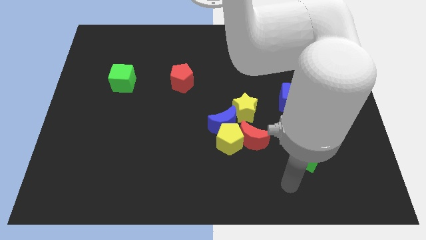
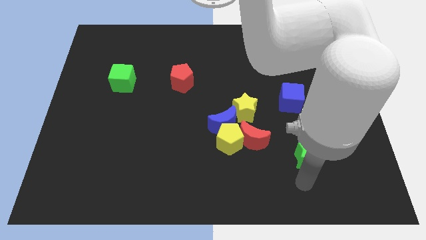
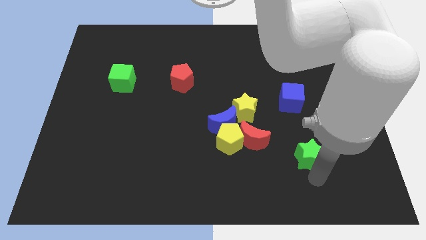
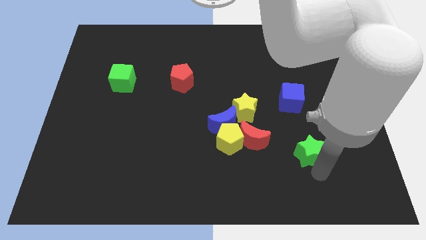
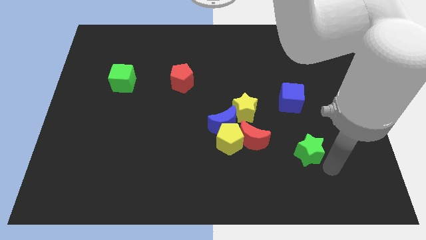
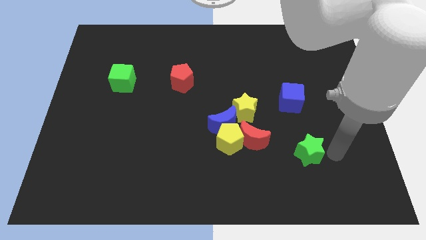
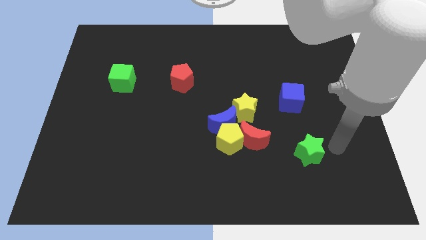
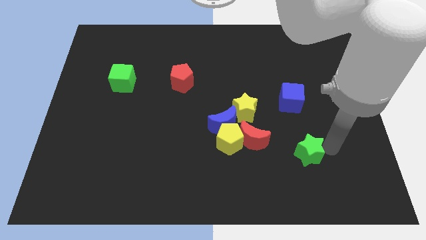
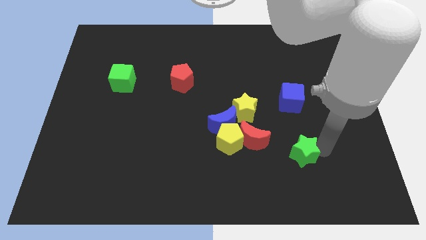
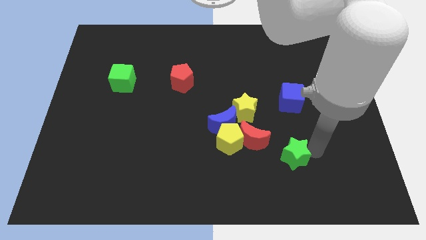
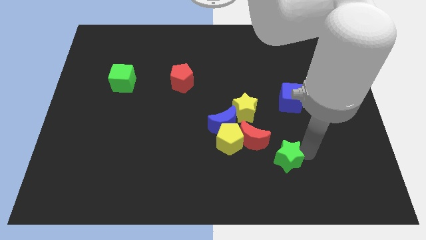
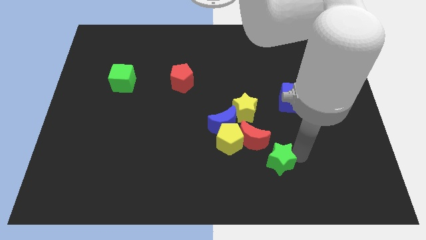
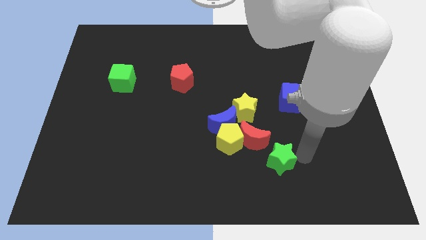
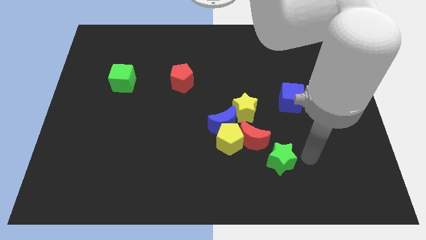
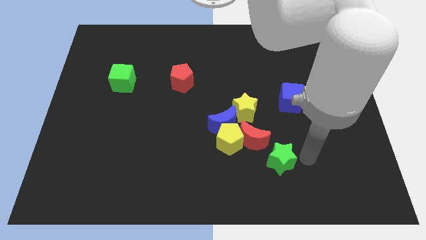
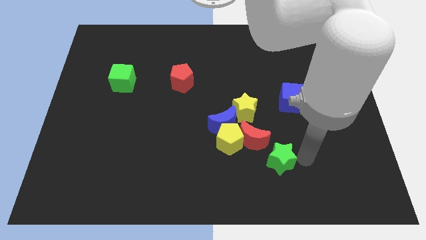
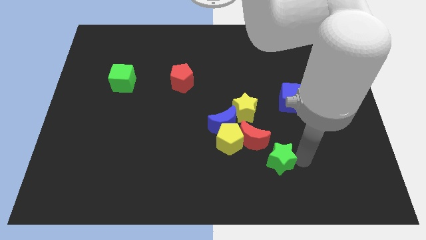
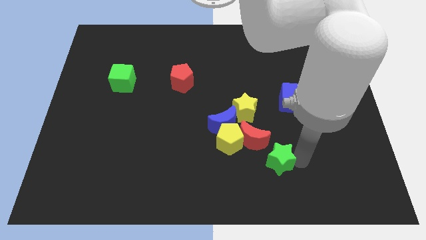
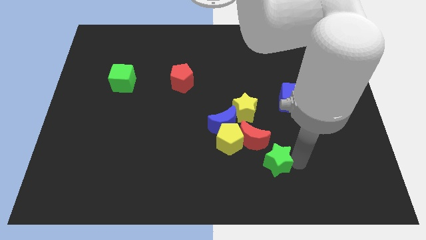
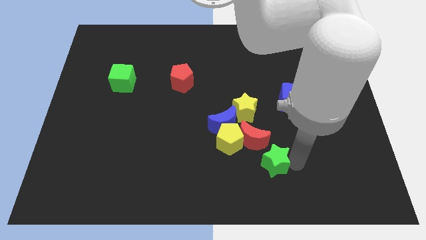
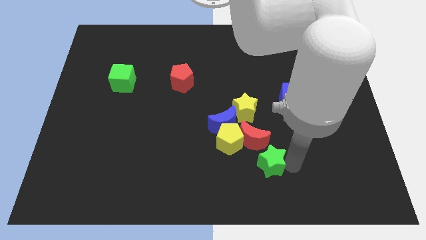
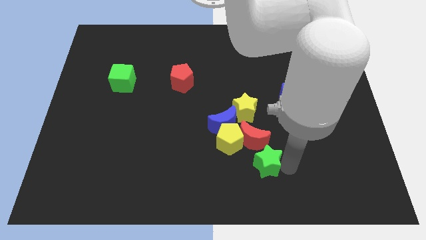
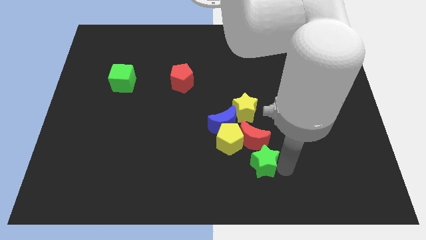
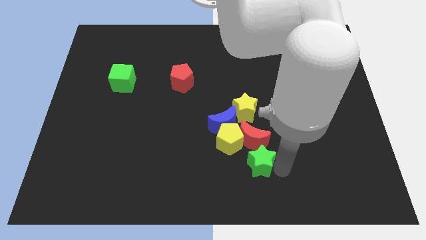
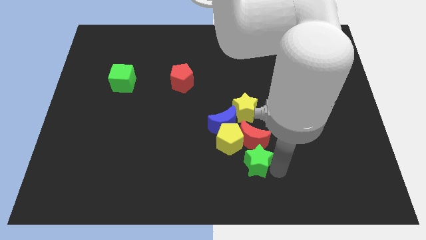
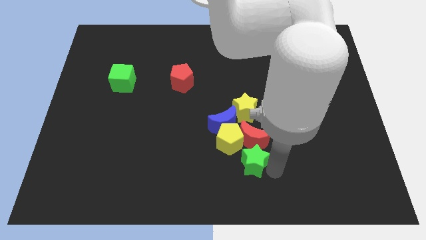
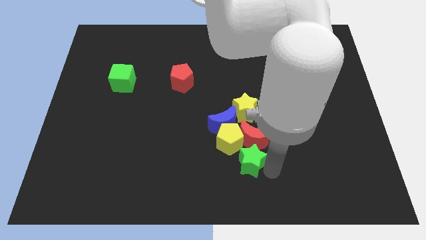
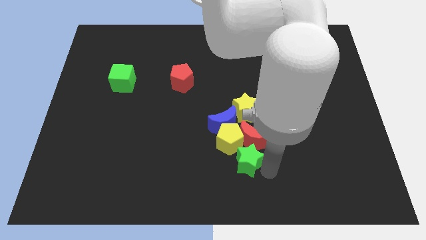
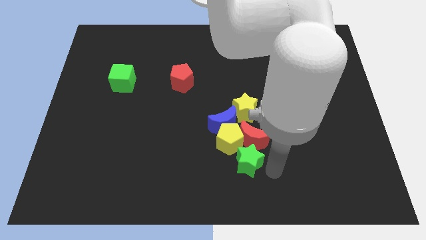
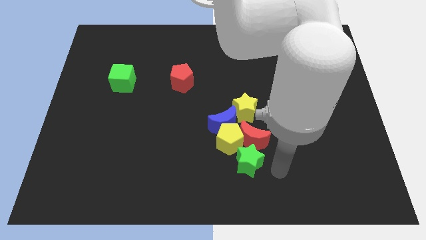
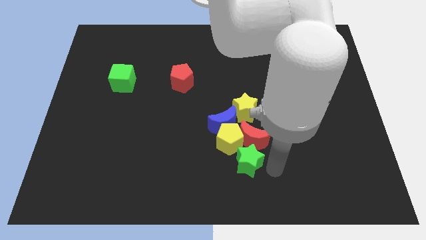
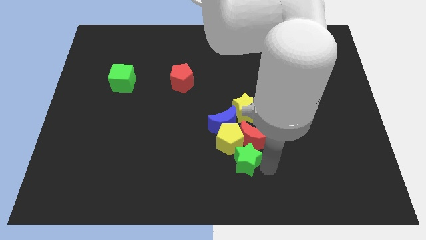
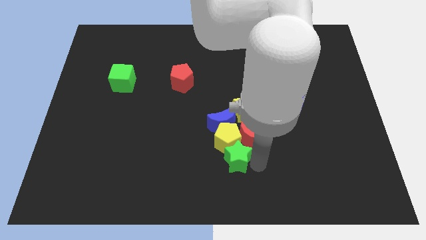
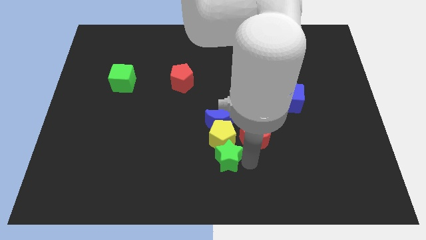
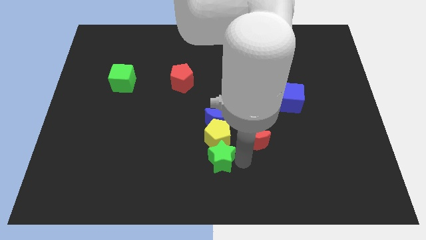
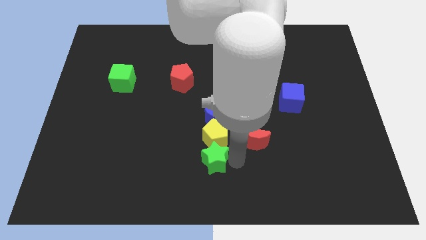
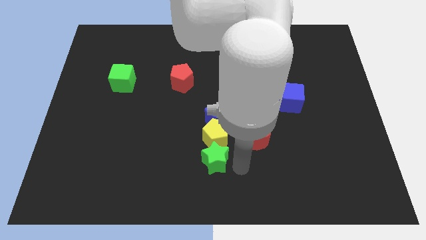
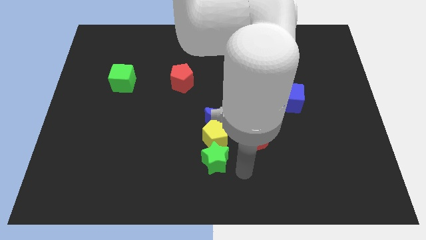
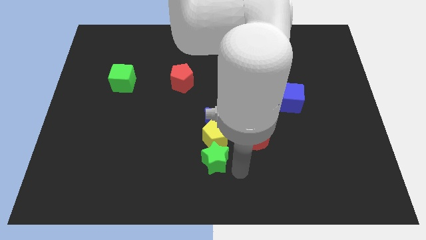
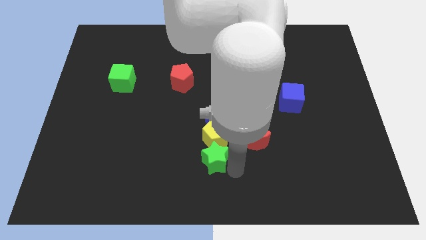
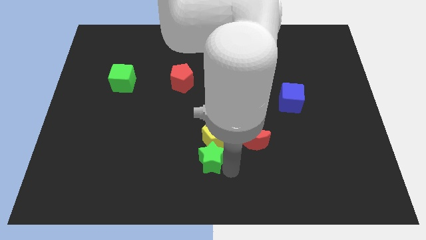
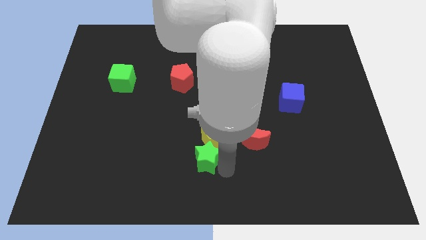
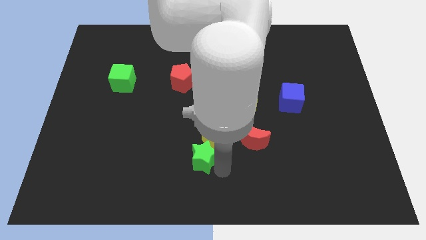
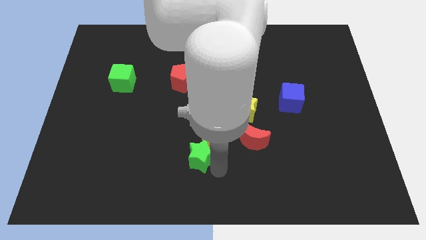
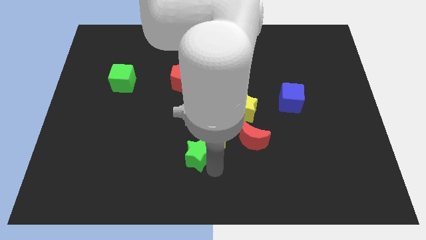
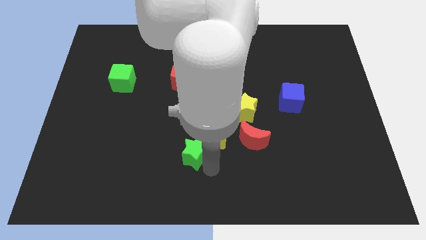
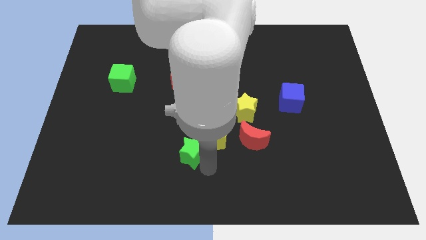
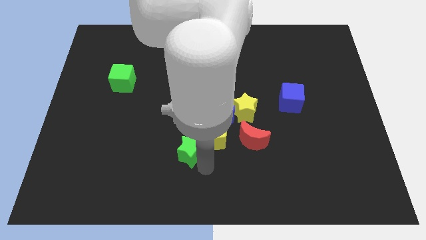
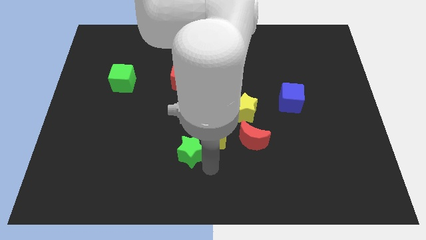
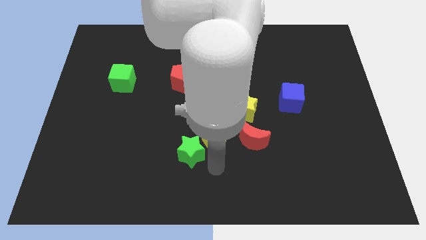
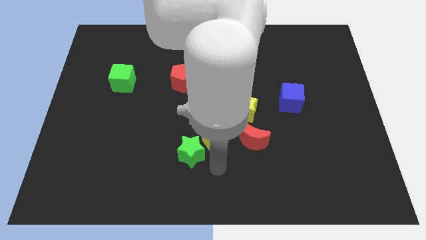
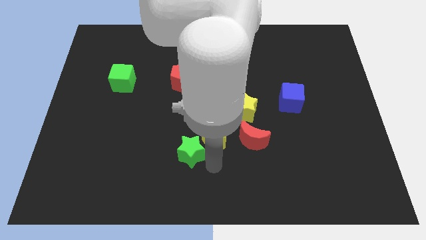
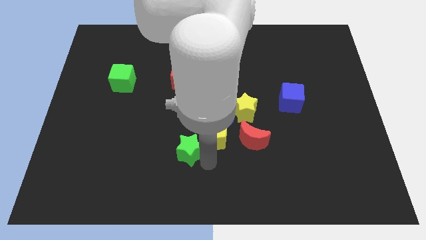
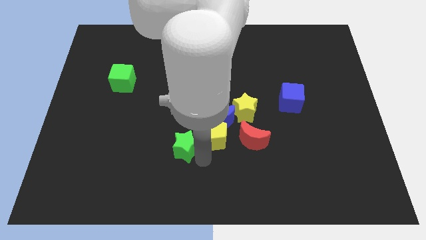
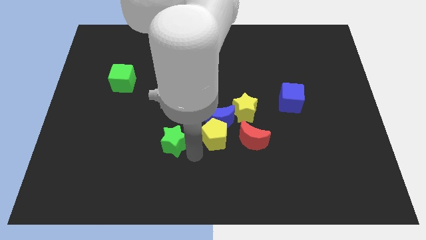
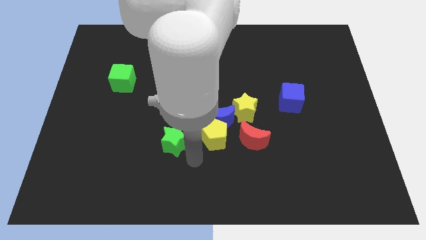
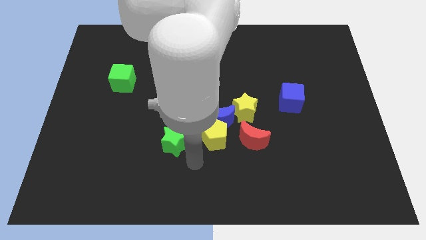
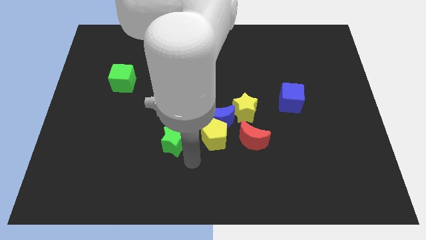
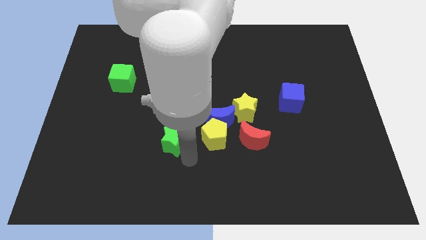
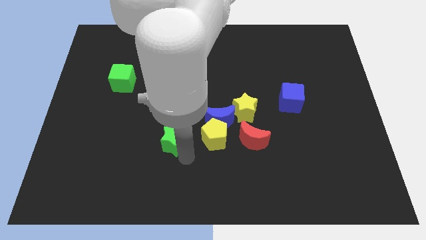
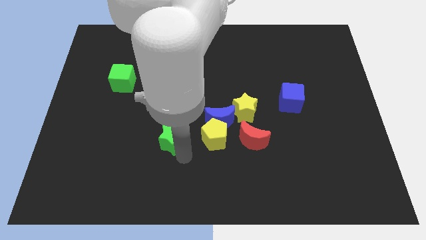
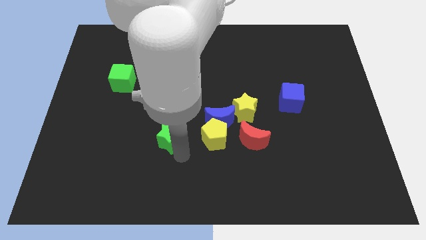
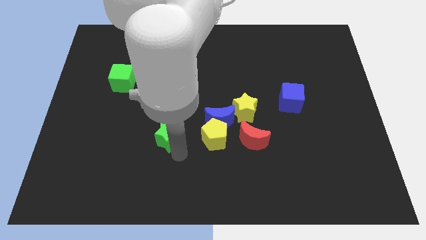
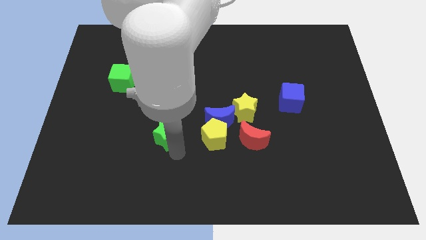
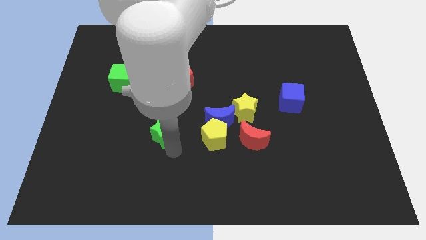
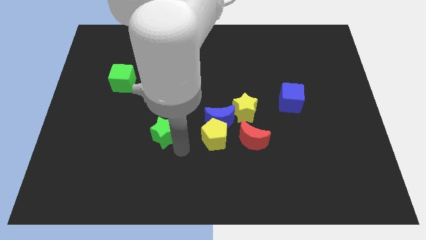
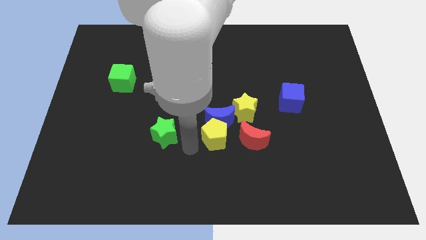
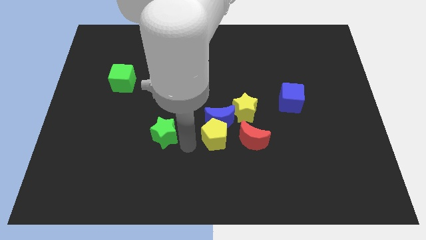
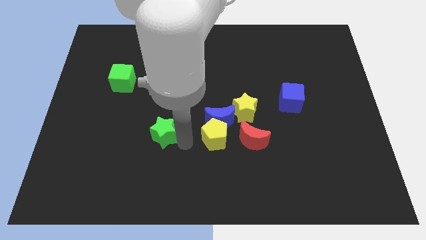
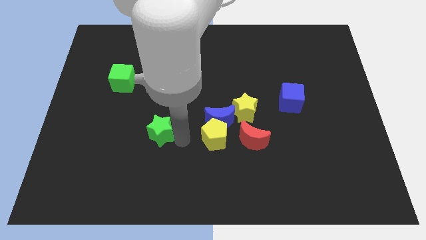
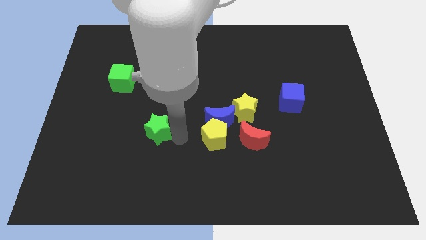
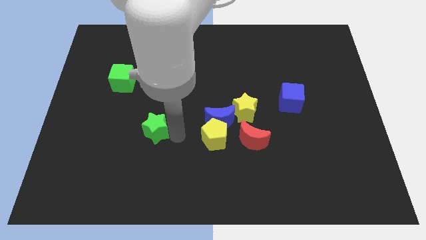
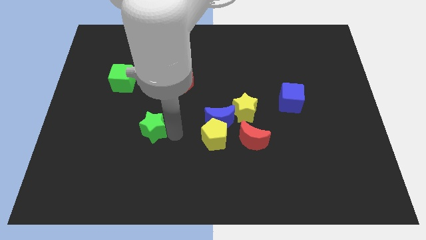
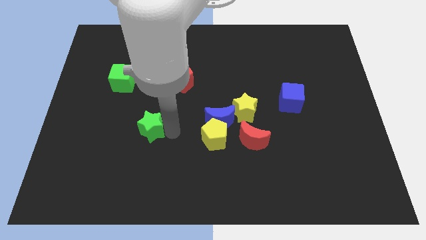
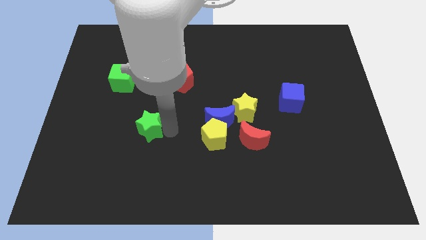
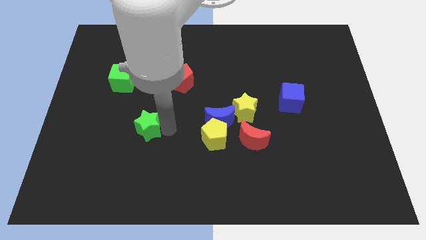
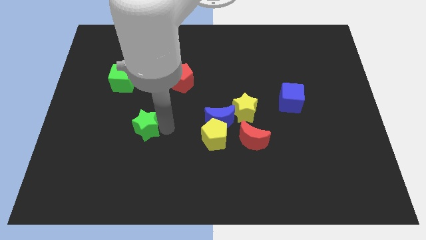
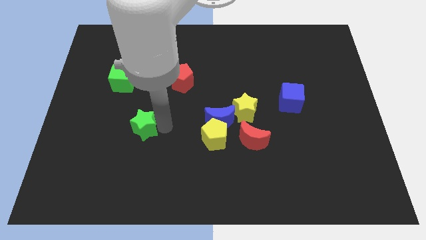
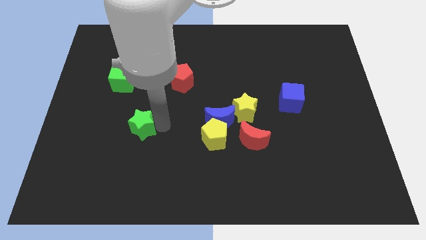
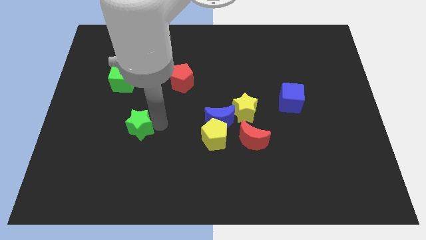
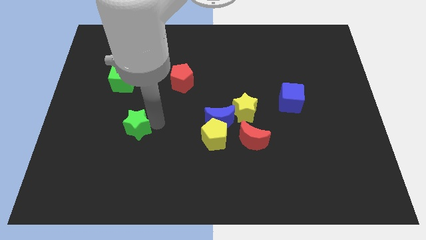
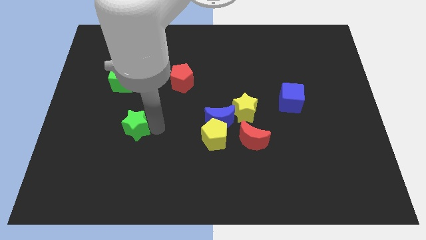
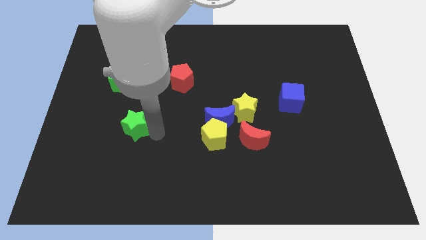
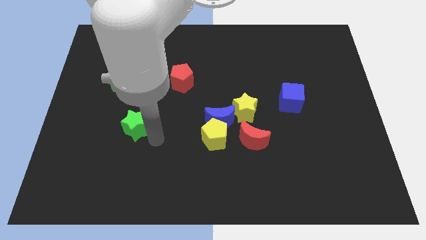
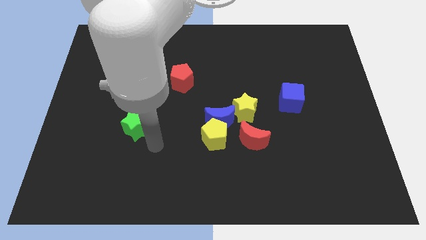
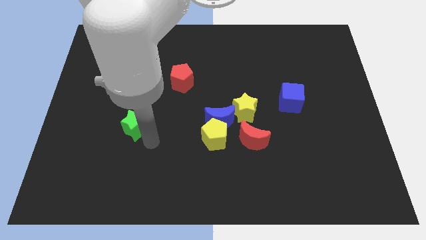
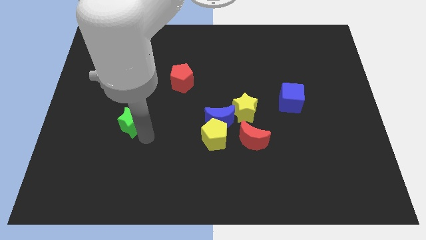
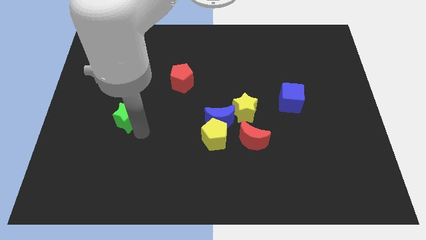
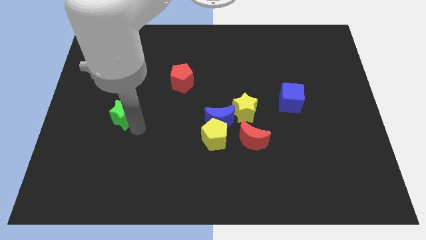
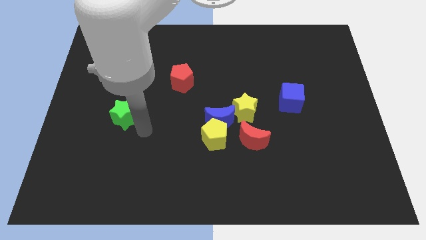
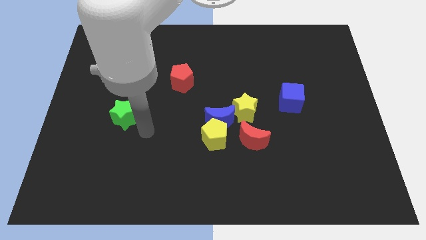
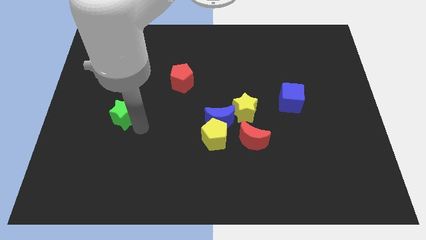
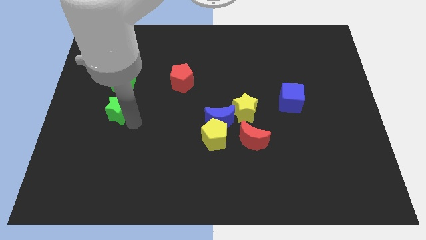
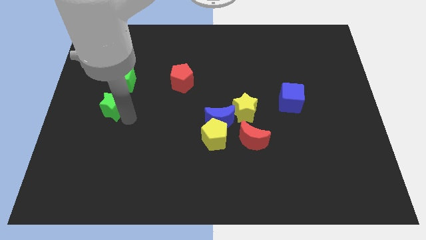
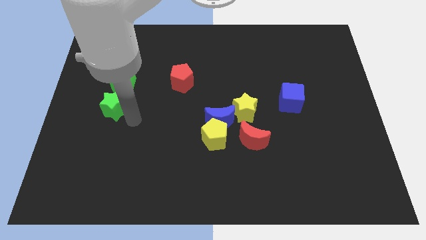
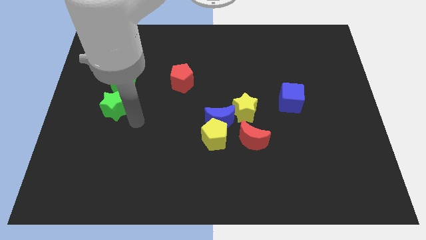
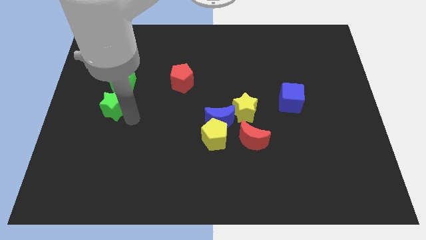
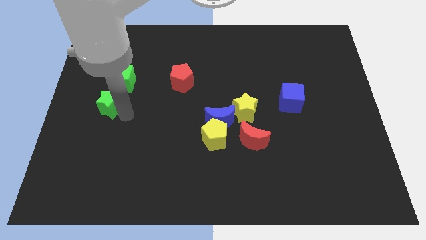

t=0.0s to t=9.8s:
slide the green star to the bottom left side of the green cube
